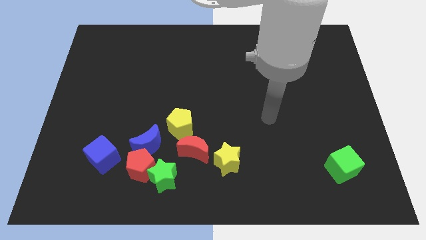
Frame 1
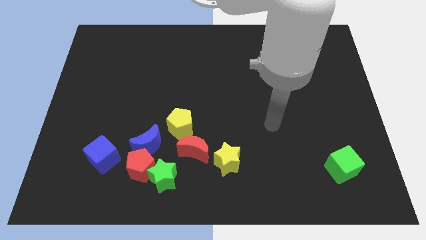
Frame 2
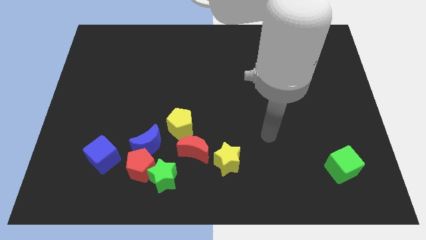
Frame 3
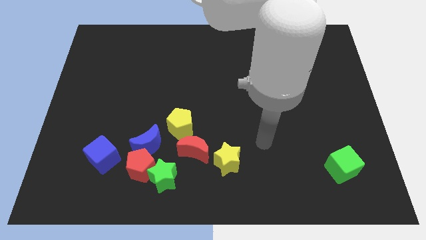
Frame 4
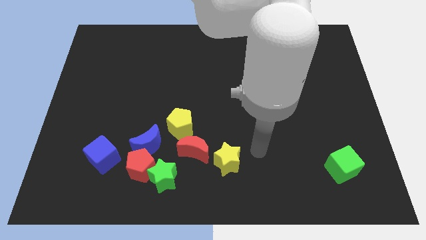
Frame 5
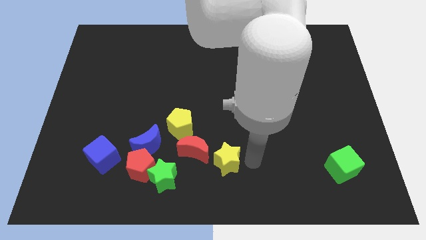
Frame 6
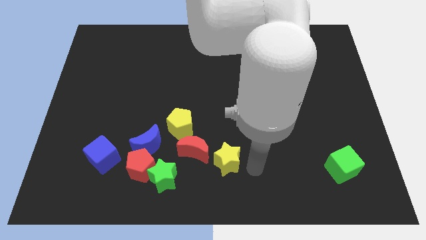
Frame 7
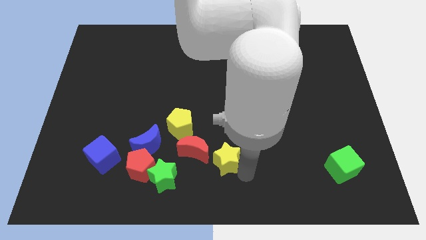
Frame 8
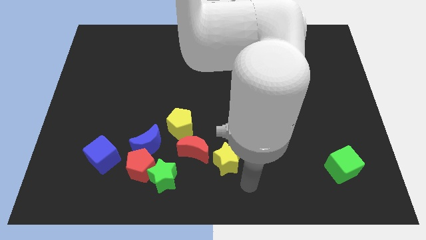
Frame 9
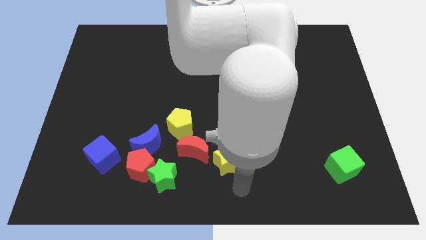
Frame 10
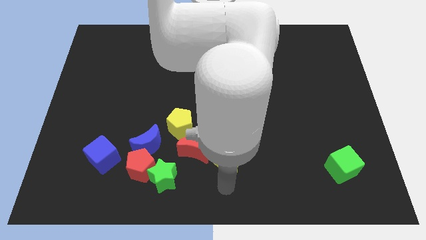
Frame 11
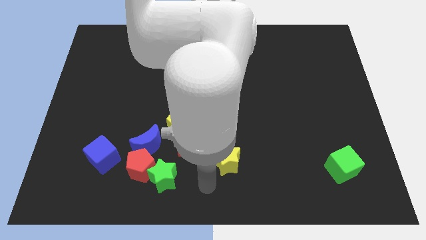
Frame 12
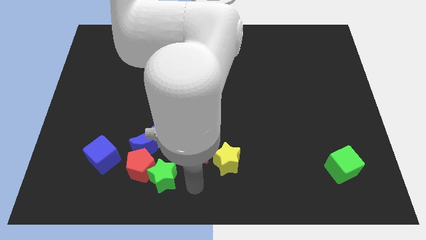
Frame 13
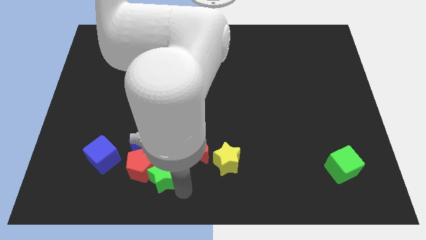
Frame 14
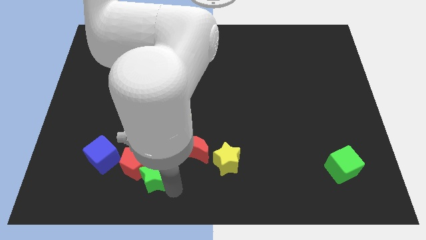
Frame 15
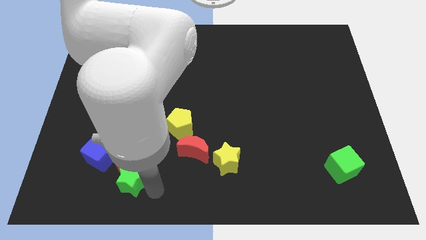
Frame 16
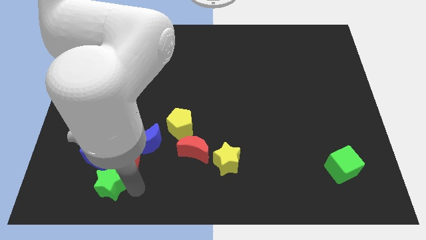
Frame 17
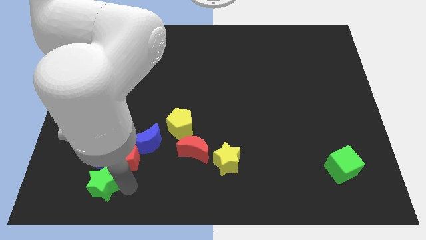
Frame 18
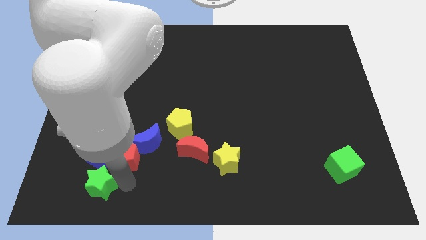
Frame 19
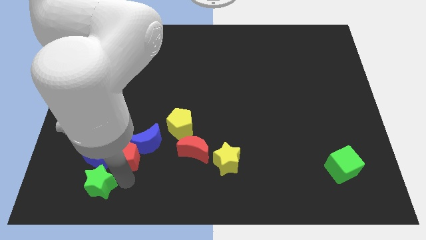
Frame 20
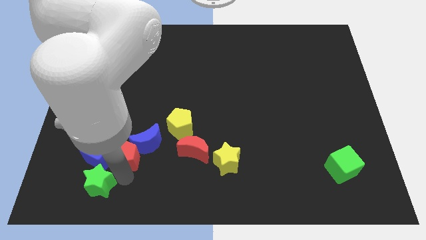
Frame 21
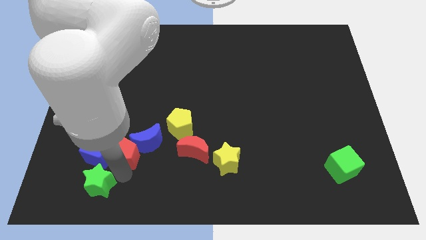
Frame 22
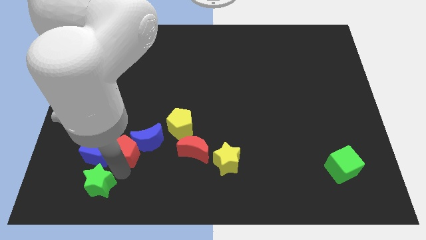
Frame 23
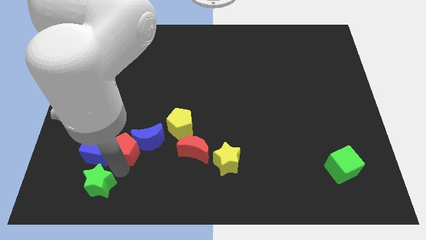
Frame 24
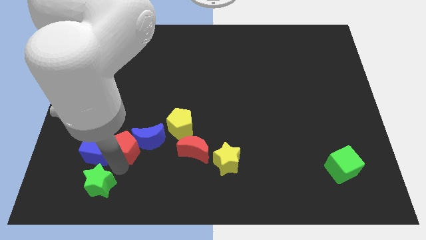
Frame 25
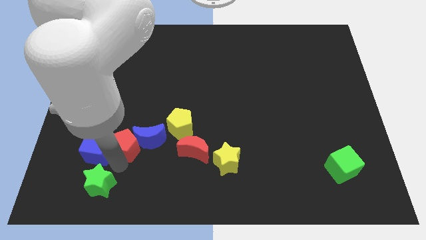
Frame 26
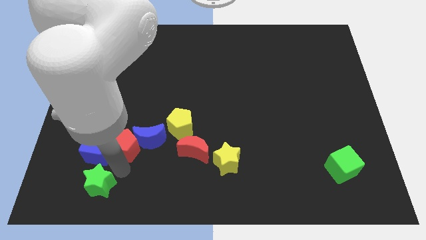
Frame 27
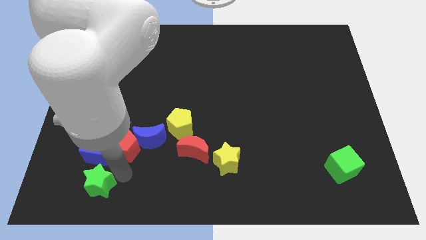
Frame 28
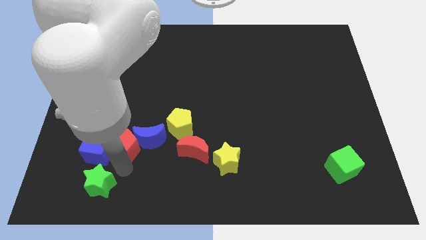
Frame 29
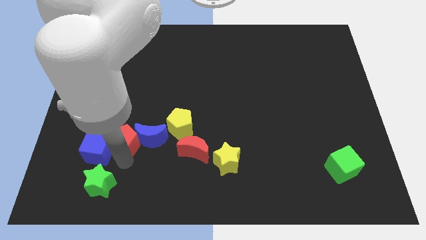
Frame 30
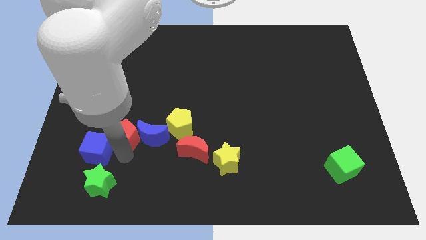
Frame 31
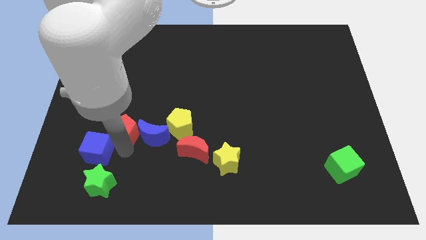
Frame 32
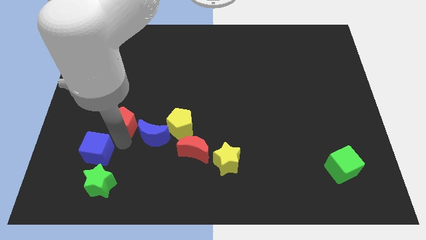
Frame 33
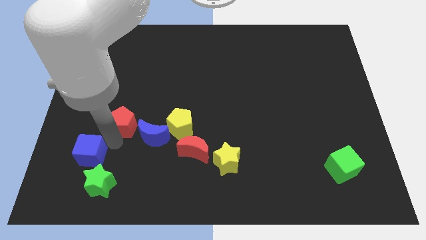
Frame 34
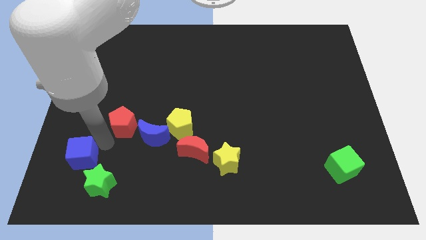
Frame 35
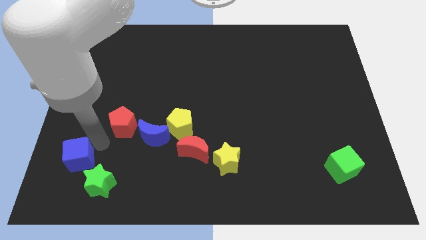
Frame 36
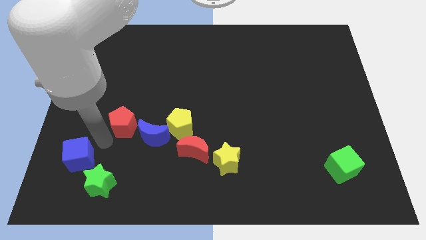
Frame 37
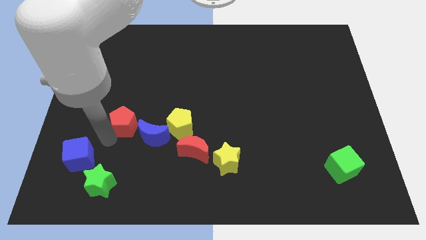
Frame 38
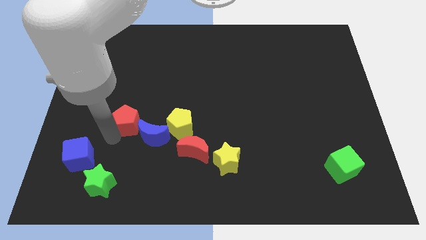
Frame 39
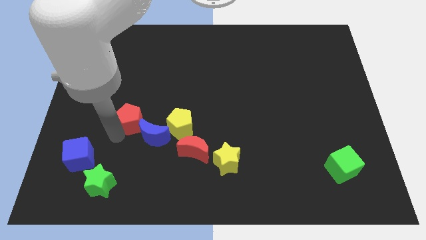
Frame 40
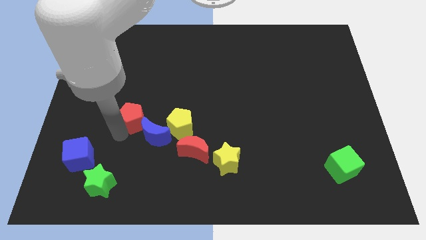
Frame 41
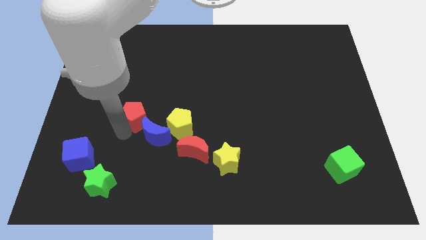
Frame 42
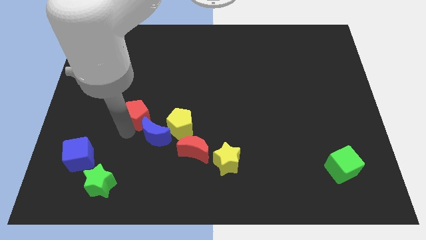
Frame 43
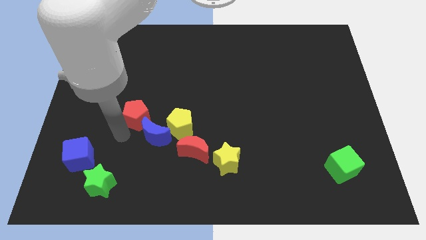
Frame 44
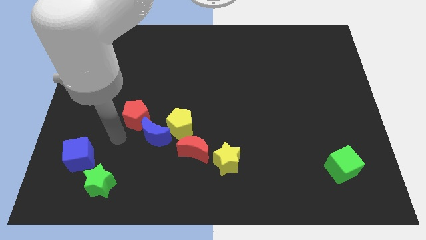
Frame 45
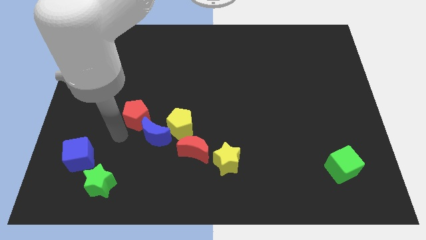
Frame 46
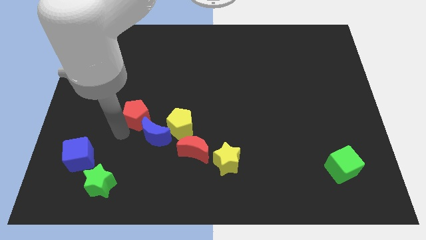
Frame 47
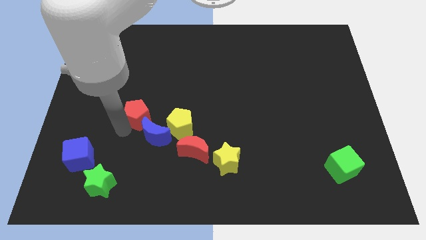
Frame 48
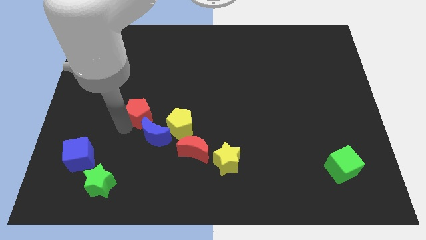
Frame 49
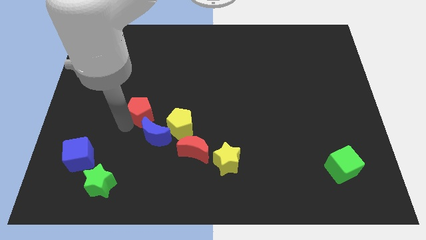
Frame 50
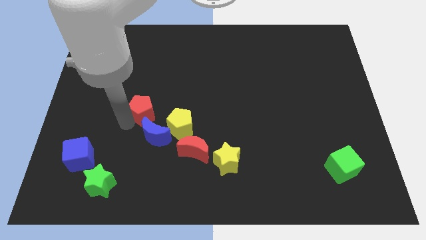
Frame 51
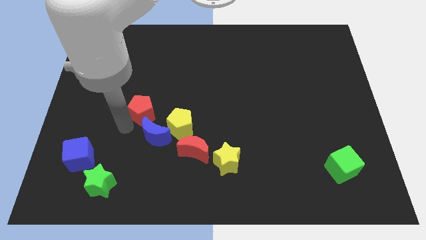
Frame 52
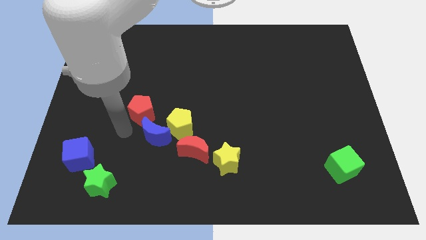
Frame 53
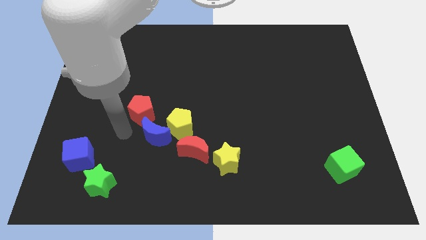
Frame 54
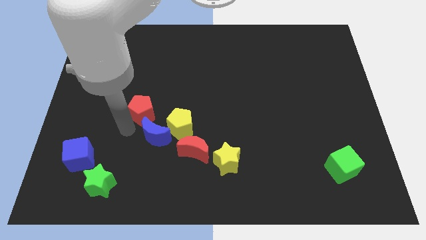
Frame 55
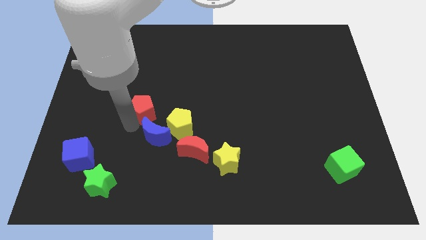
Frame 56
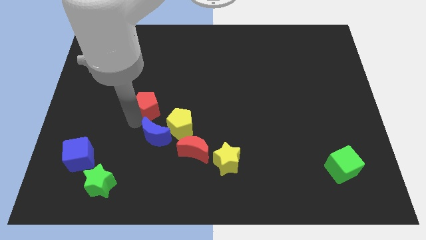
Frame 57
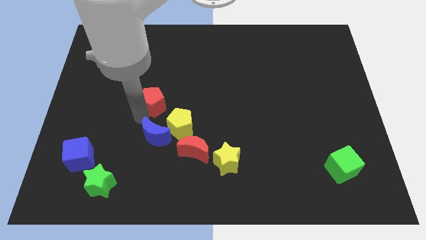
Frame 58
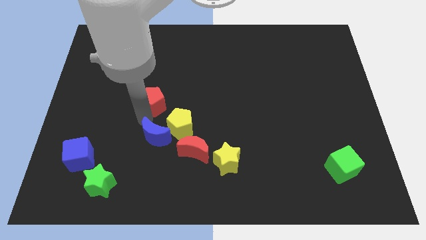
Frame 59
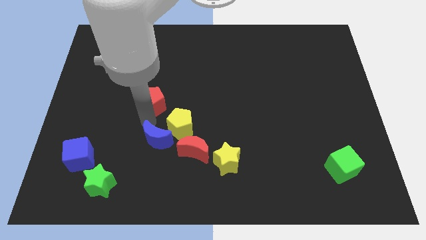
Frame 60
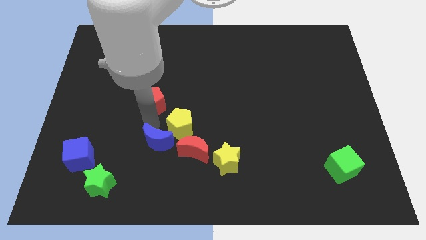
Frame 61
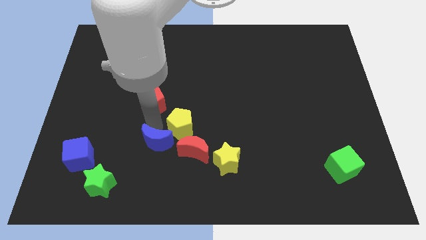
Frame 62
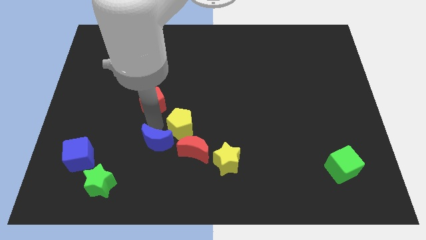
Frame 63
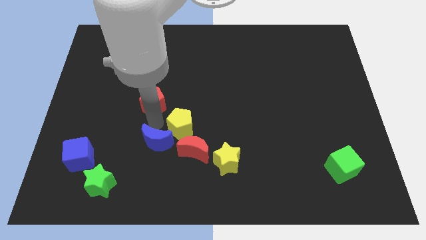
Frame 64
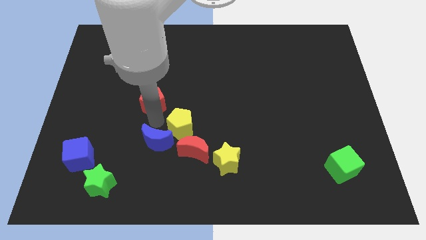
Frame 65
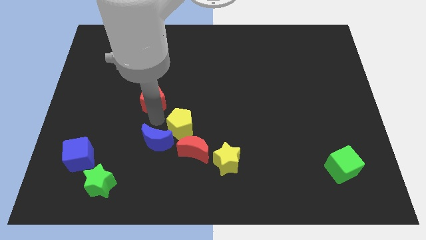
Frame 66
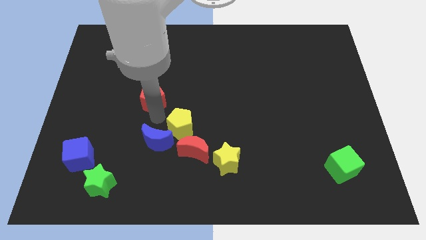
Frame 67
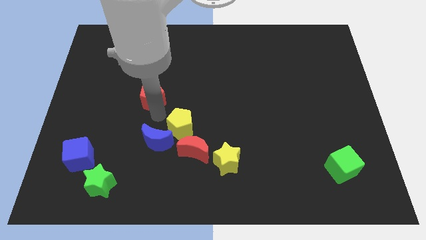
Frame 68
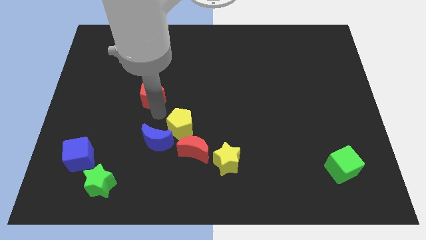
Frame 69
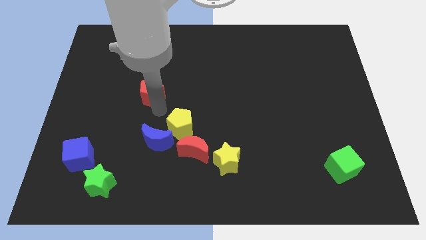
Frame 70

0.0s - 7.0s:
slide the red pentagon up

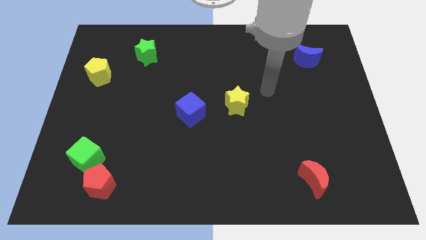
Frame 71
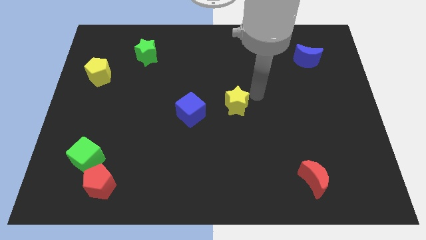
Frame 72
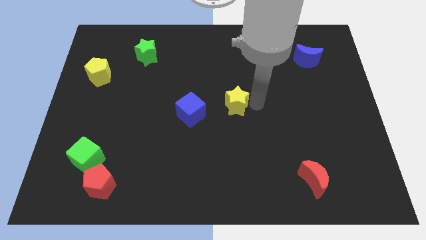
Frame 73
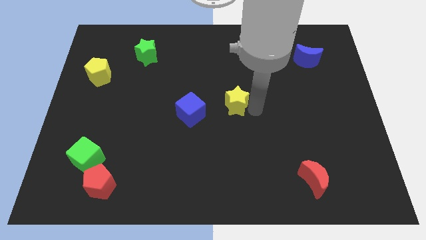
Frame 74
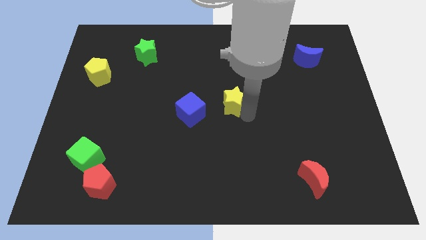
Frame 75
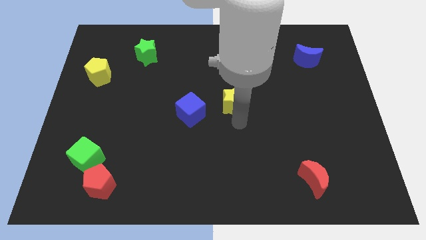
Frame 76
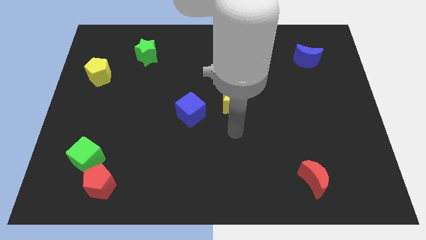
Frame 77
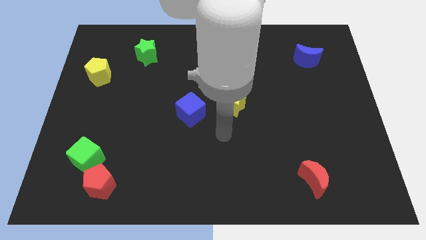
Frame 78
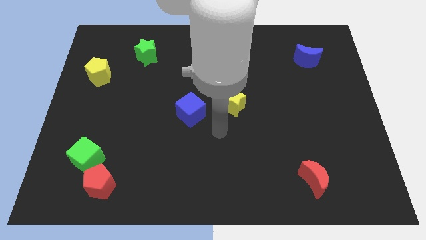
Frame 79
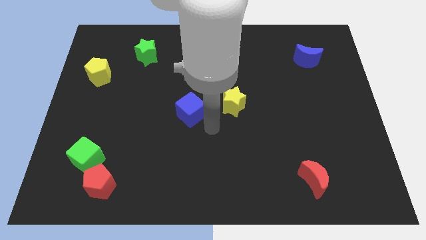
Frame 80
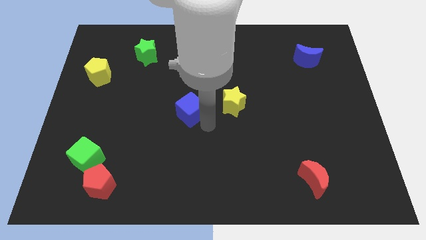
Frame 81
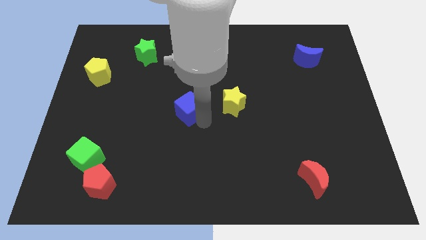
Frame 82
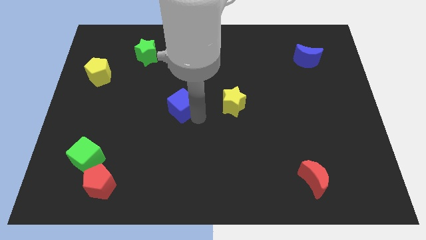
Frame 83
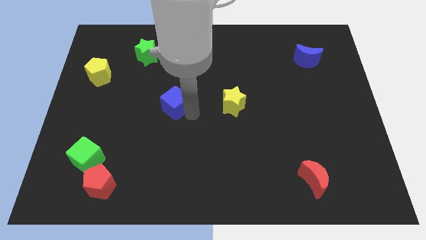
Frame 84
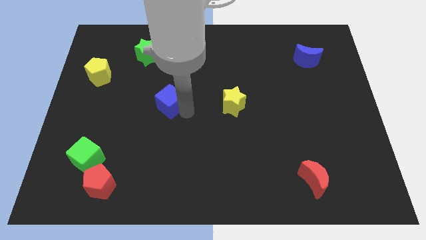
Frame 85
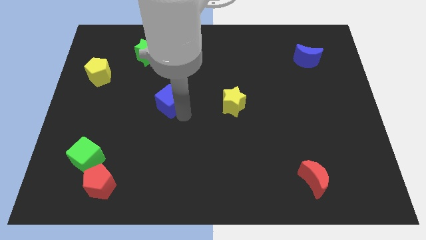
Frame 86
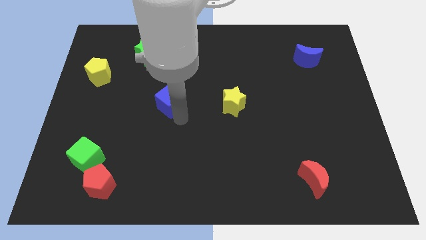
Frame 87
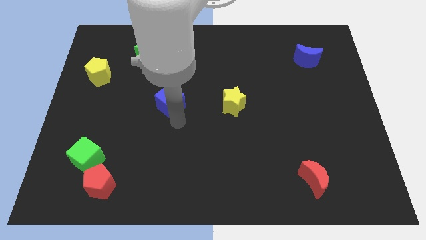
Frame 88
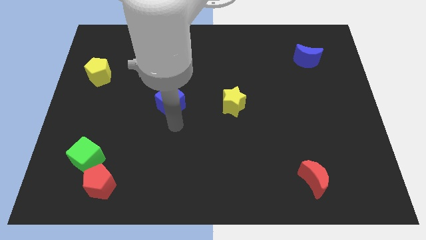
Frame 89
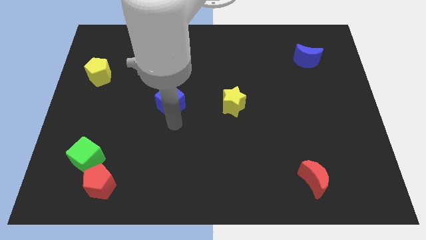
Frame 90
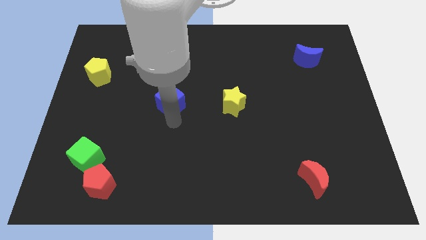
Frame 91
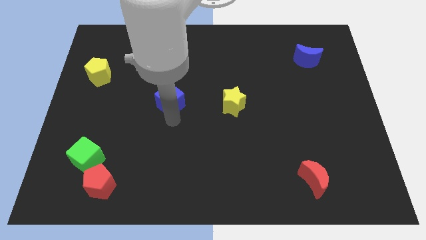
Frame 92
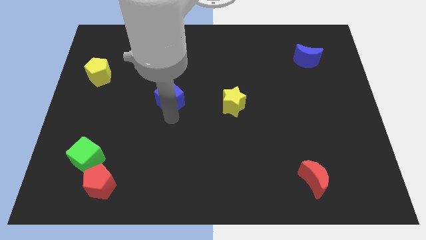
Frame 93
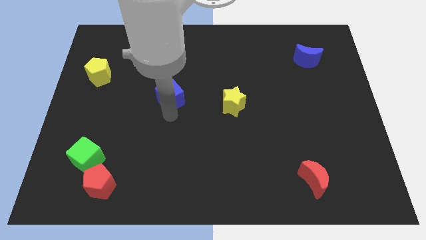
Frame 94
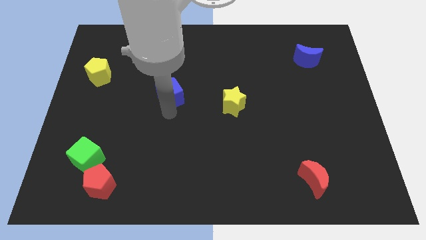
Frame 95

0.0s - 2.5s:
push the blue cube somewhat upwards and then left
